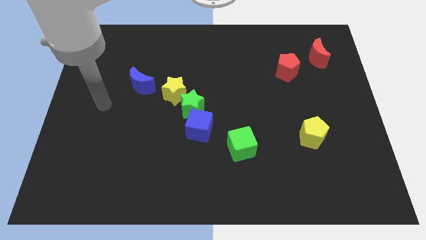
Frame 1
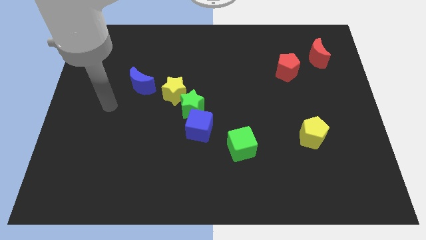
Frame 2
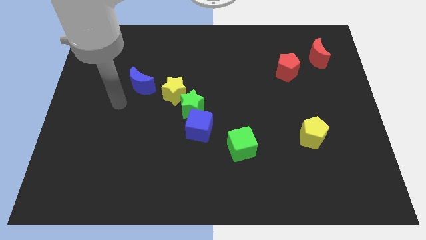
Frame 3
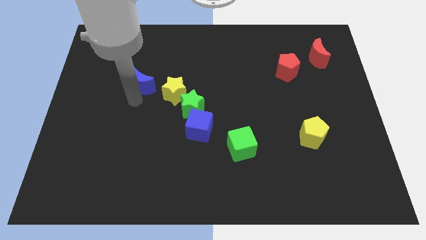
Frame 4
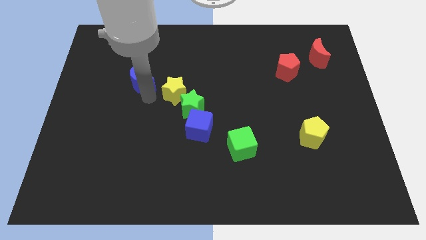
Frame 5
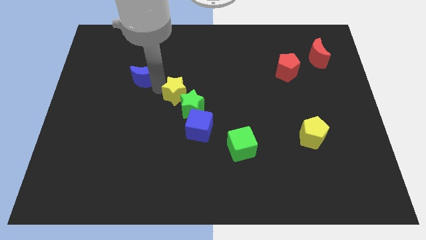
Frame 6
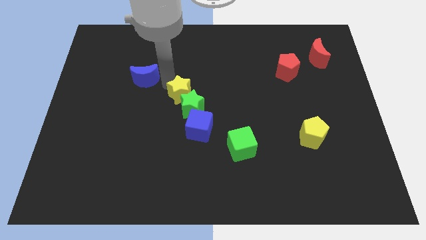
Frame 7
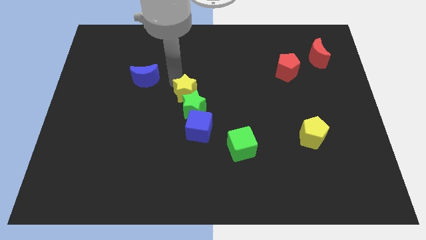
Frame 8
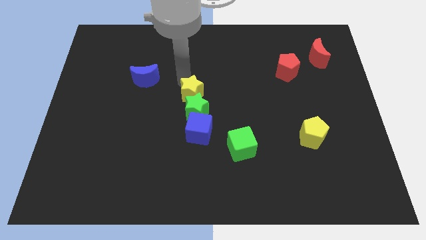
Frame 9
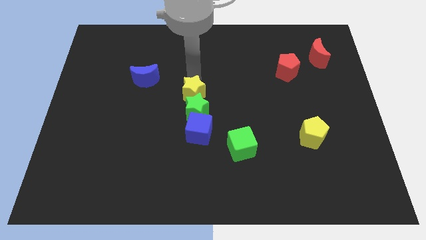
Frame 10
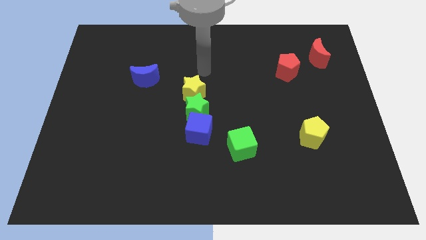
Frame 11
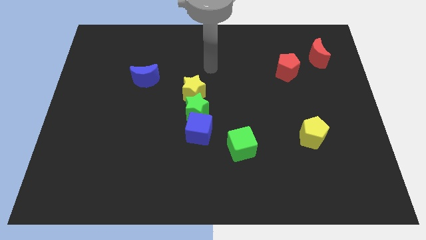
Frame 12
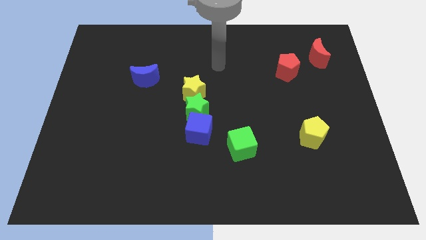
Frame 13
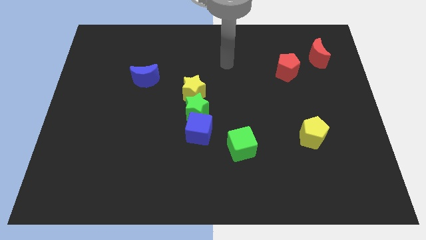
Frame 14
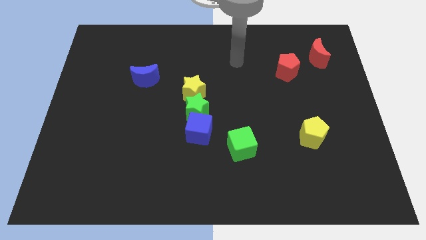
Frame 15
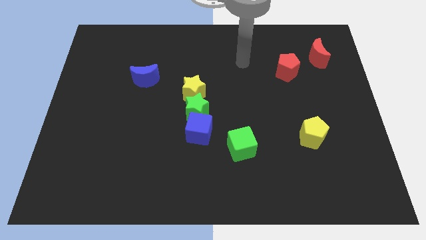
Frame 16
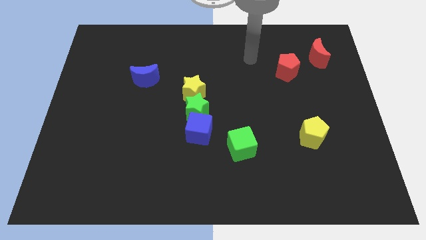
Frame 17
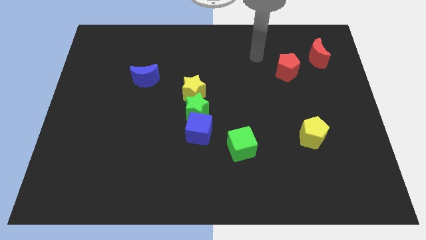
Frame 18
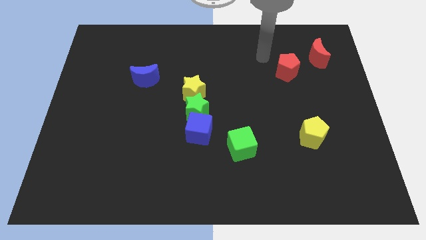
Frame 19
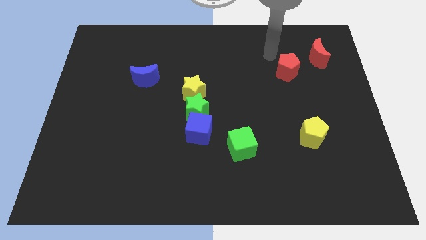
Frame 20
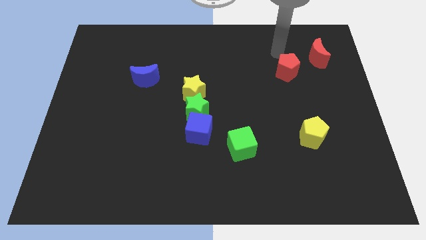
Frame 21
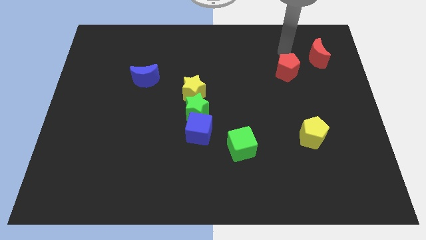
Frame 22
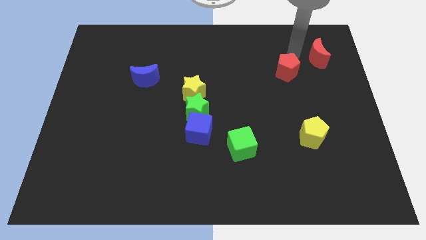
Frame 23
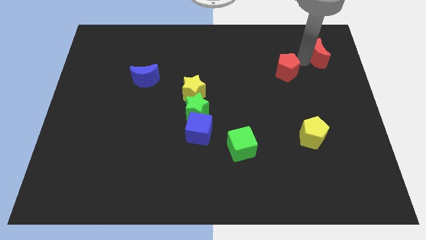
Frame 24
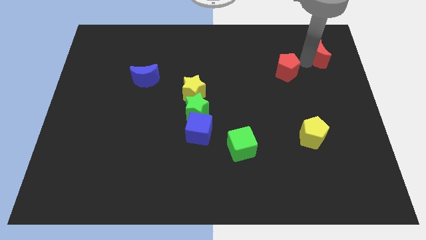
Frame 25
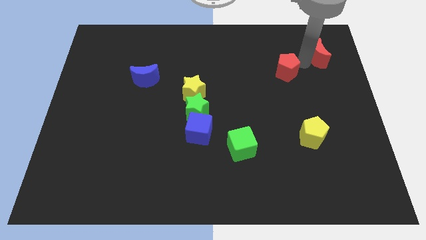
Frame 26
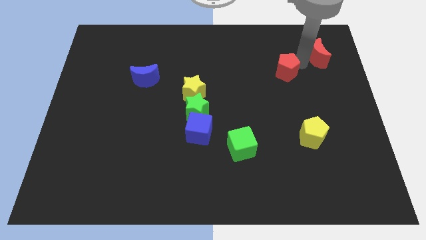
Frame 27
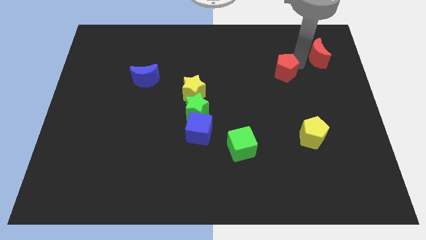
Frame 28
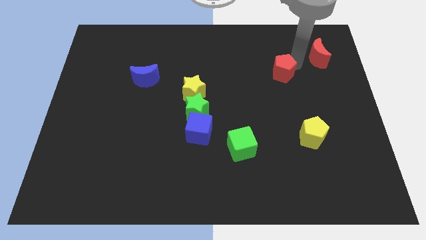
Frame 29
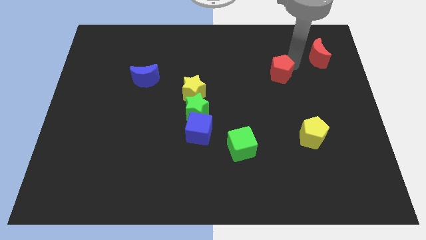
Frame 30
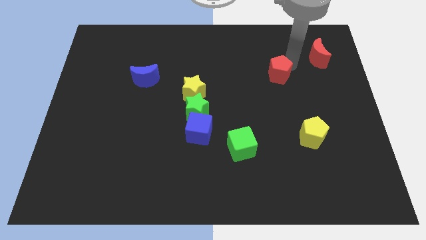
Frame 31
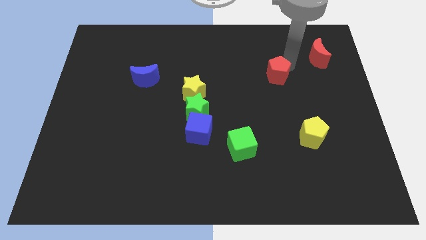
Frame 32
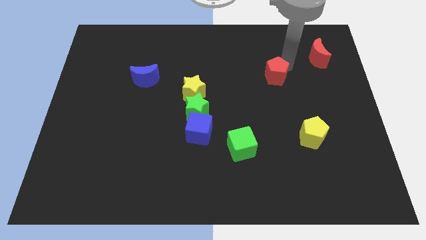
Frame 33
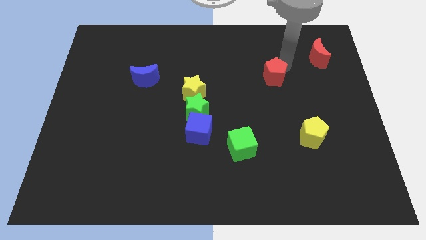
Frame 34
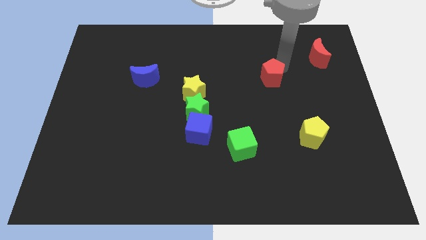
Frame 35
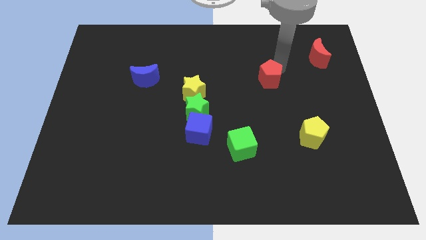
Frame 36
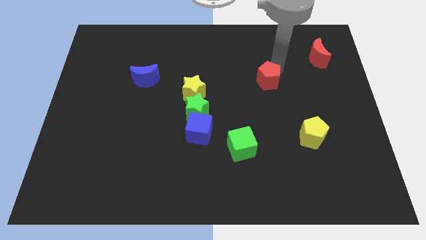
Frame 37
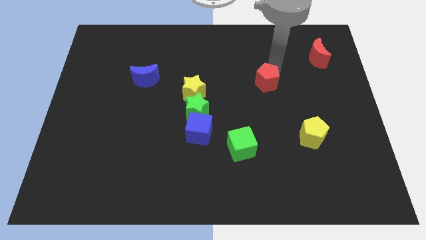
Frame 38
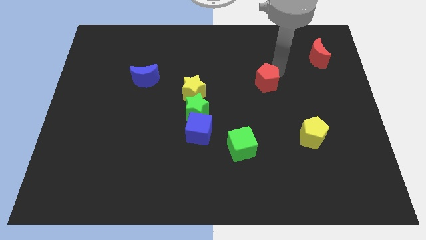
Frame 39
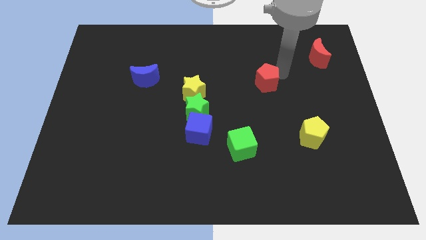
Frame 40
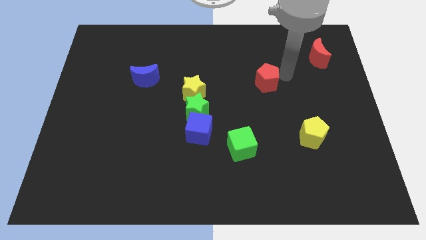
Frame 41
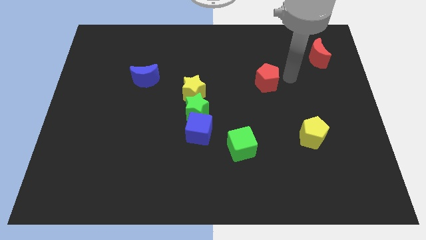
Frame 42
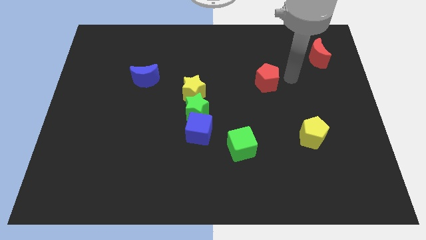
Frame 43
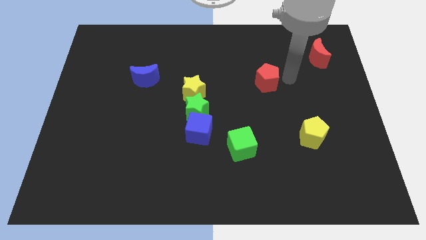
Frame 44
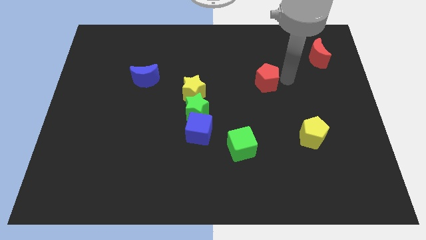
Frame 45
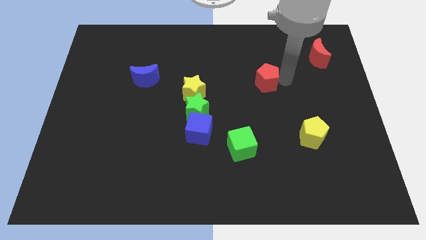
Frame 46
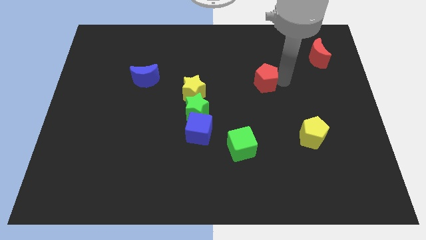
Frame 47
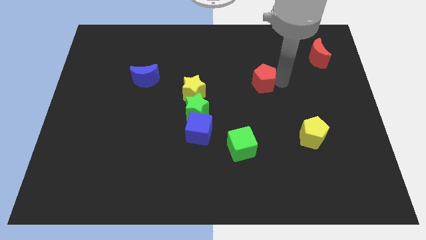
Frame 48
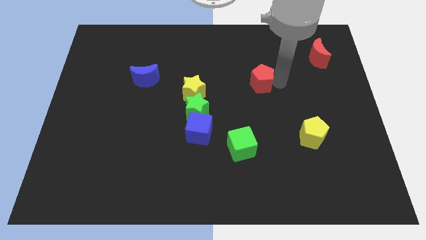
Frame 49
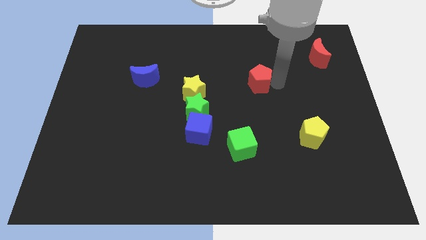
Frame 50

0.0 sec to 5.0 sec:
push the red pentagon to the center of the board

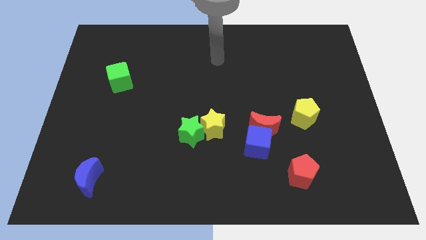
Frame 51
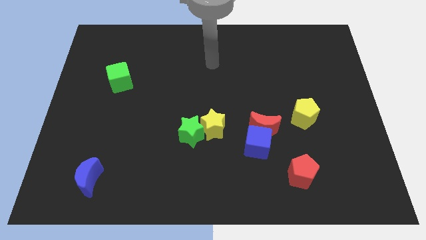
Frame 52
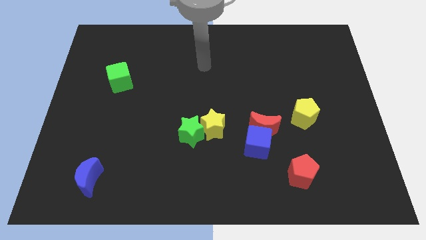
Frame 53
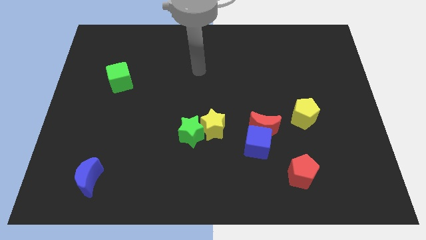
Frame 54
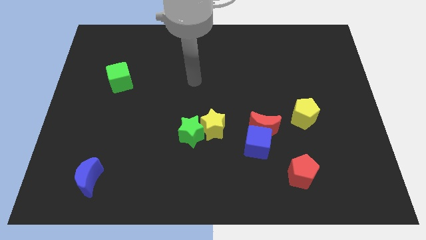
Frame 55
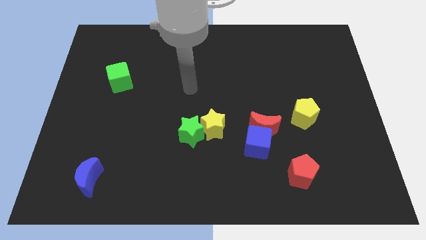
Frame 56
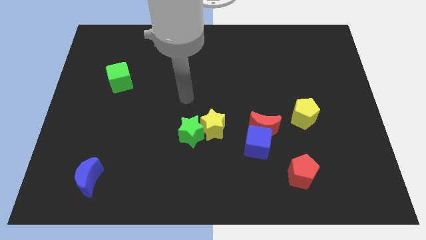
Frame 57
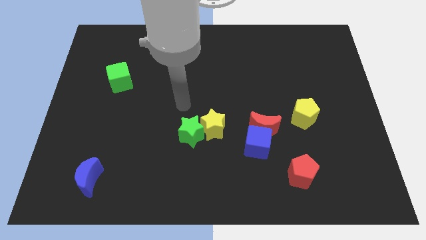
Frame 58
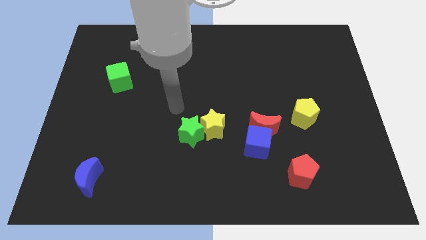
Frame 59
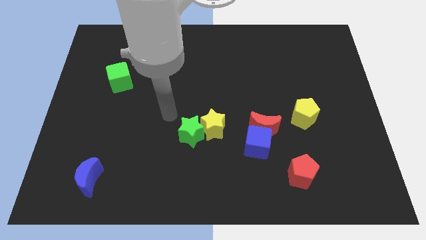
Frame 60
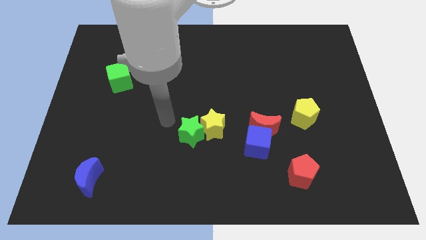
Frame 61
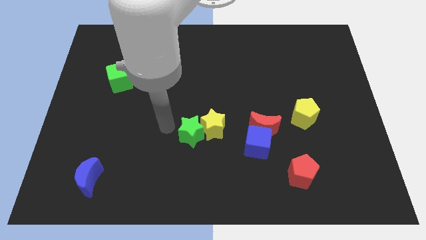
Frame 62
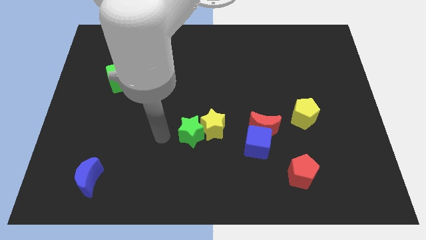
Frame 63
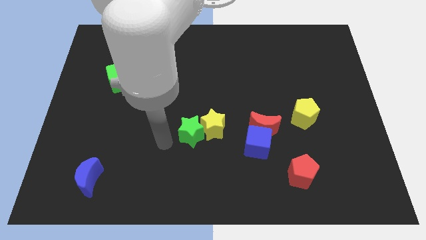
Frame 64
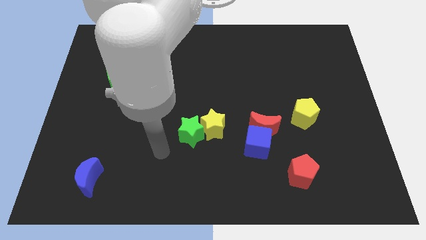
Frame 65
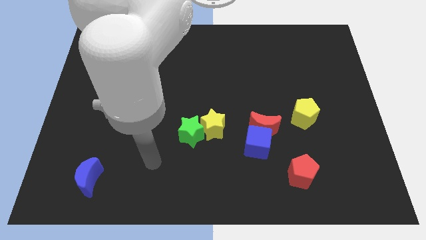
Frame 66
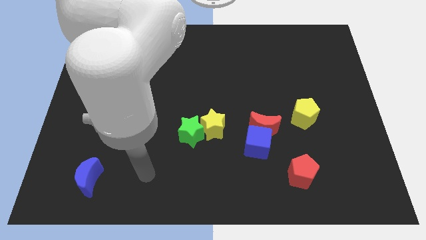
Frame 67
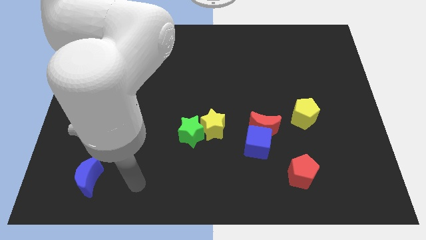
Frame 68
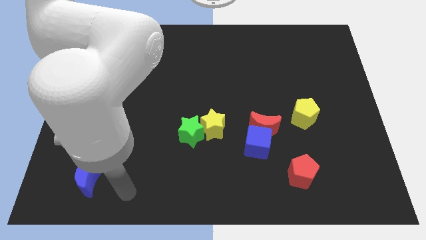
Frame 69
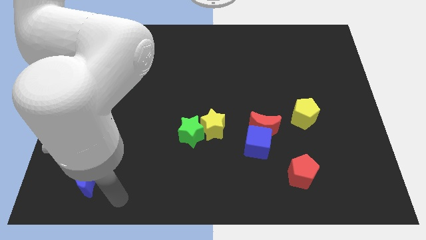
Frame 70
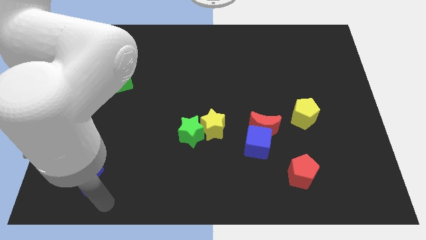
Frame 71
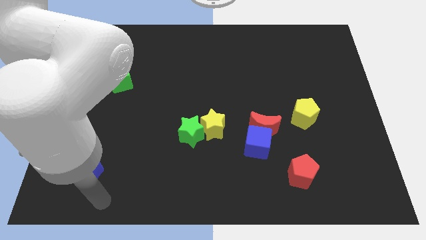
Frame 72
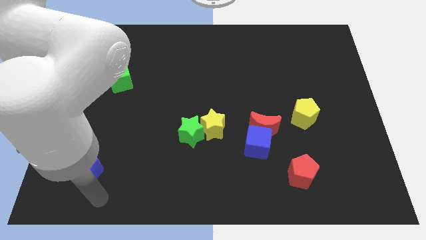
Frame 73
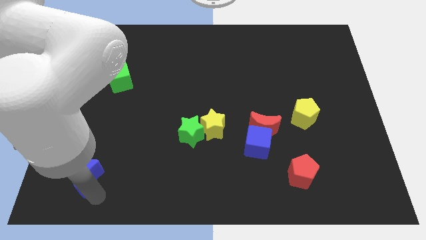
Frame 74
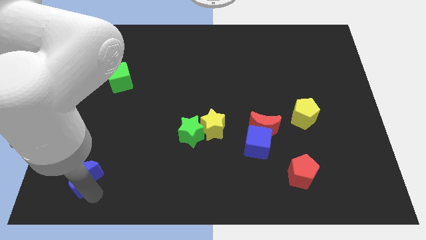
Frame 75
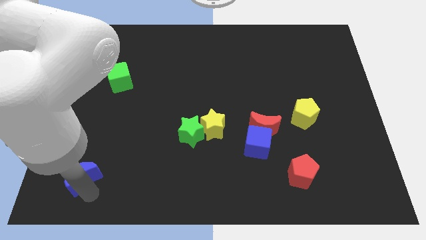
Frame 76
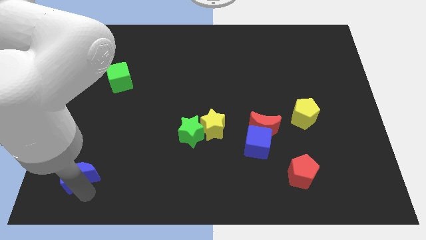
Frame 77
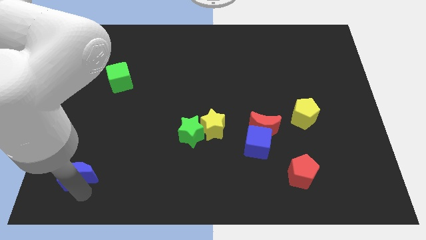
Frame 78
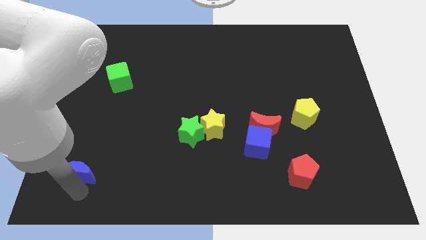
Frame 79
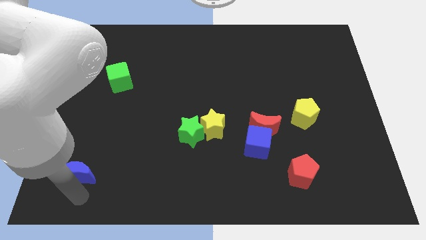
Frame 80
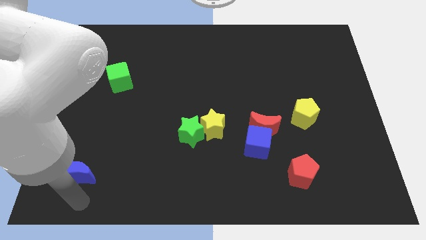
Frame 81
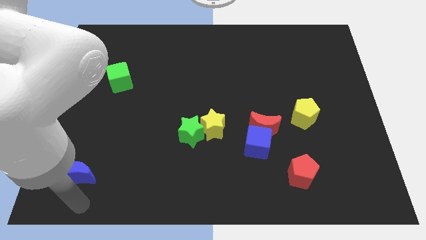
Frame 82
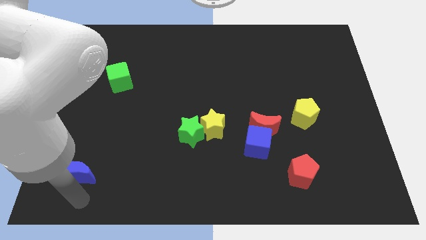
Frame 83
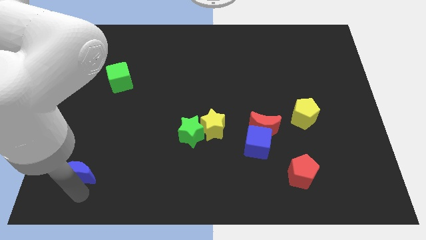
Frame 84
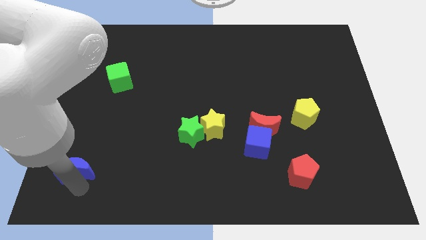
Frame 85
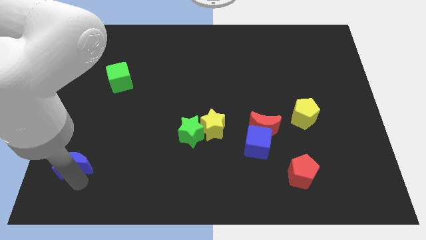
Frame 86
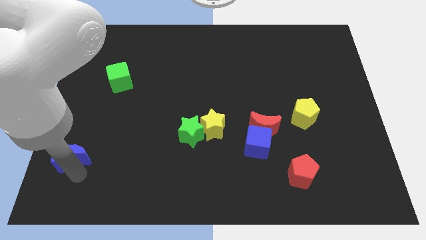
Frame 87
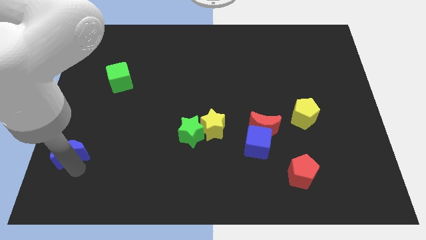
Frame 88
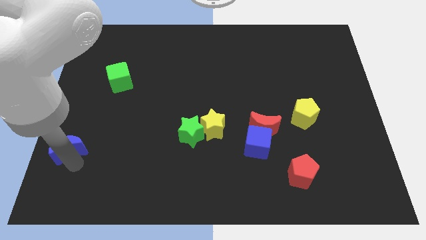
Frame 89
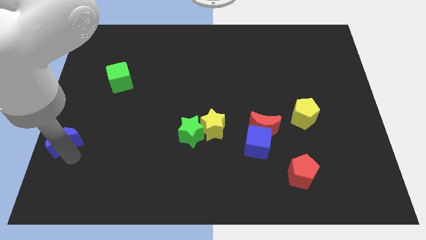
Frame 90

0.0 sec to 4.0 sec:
move the blue moon to the left side
